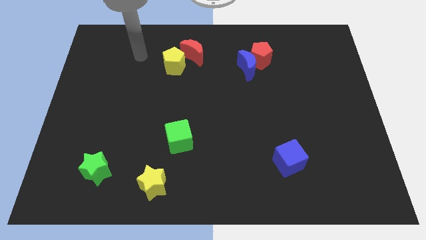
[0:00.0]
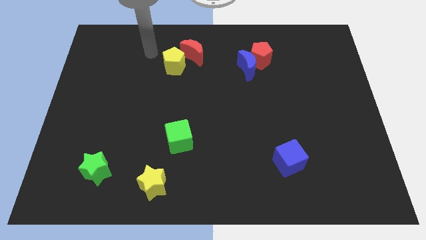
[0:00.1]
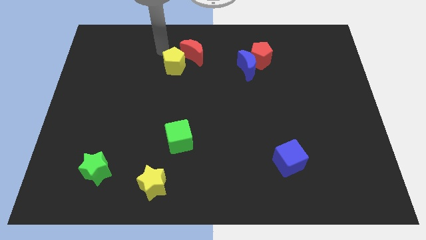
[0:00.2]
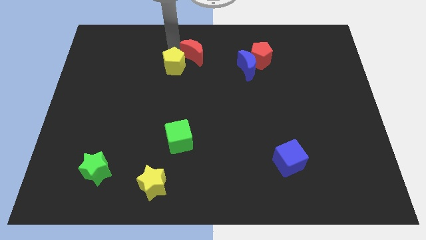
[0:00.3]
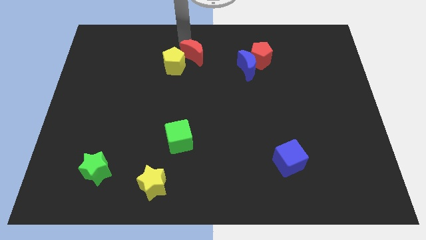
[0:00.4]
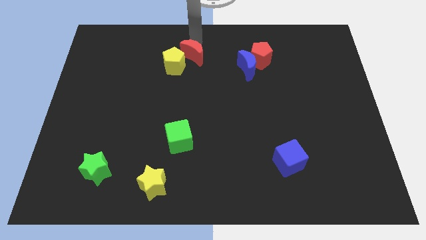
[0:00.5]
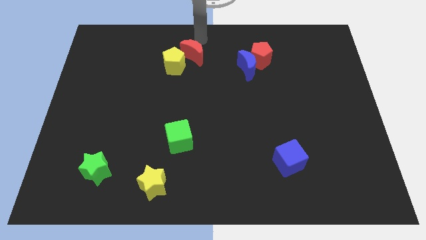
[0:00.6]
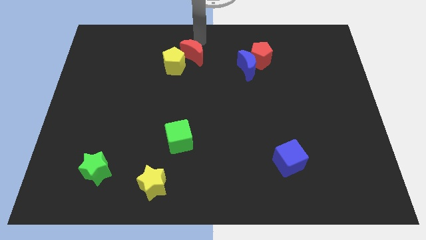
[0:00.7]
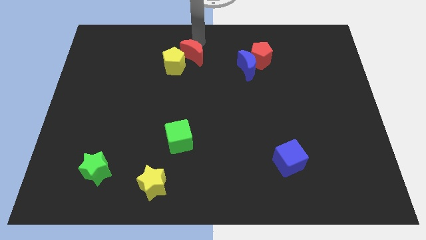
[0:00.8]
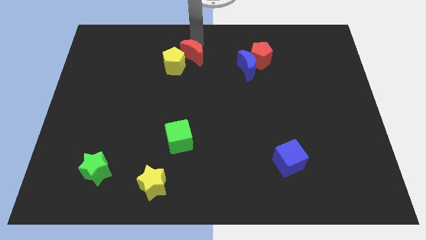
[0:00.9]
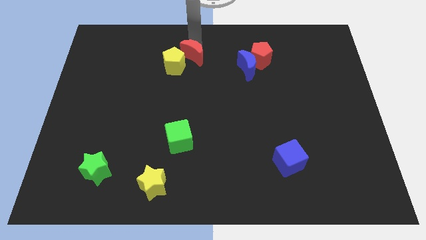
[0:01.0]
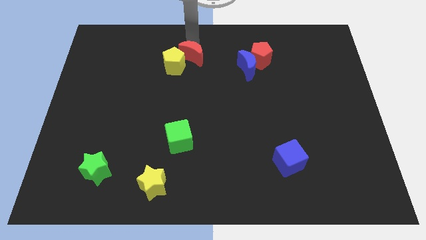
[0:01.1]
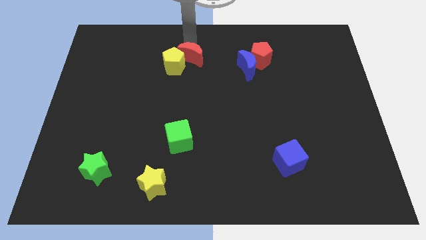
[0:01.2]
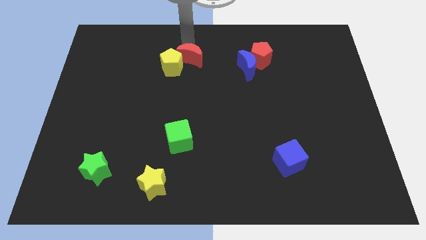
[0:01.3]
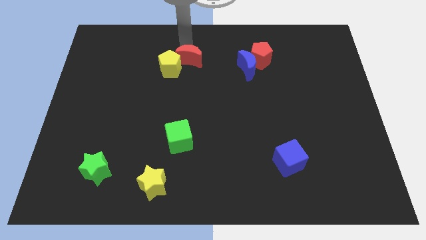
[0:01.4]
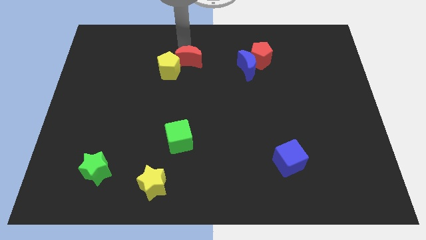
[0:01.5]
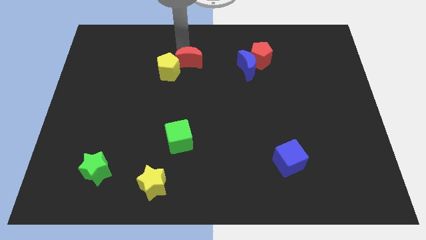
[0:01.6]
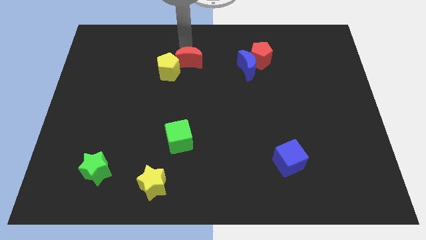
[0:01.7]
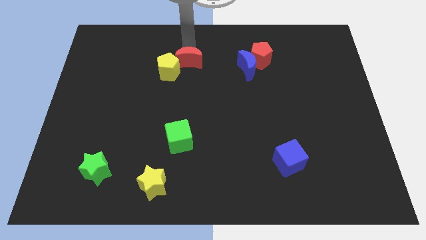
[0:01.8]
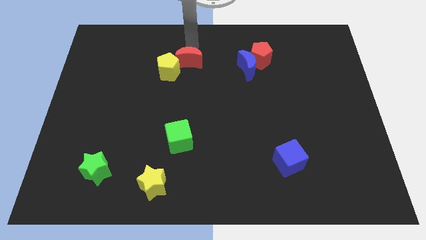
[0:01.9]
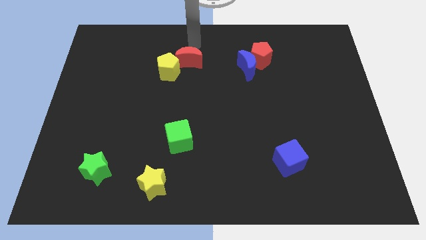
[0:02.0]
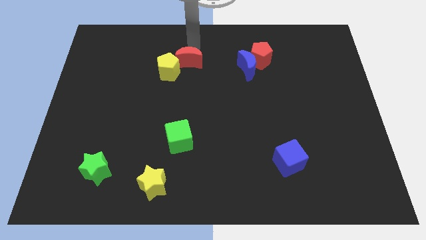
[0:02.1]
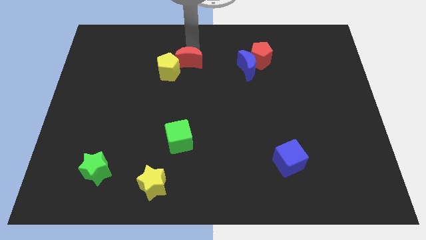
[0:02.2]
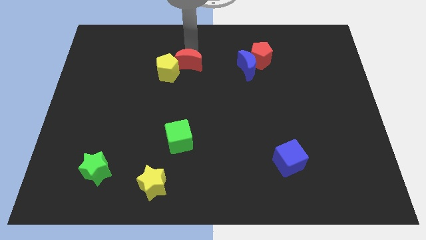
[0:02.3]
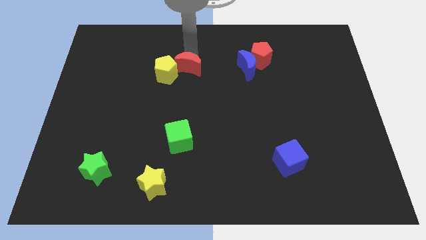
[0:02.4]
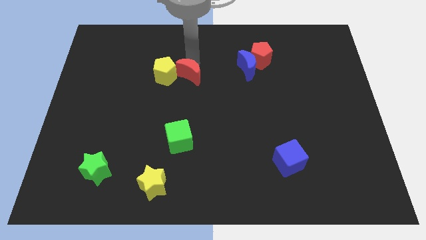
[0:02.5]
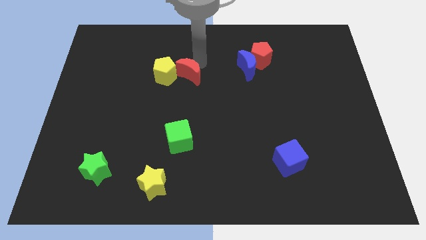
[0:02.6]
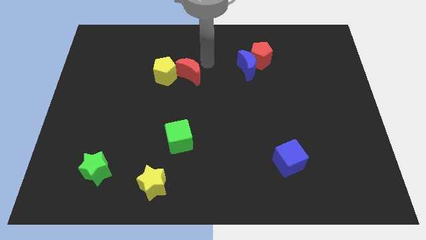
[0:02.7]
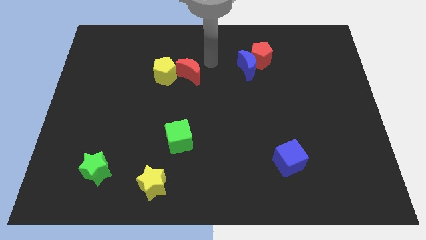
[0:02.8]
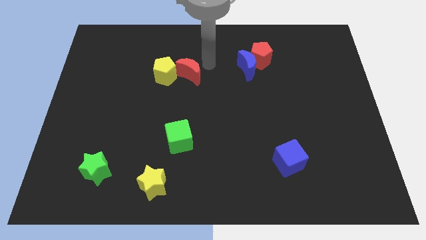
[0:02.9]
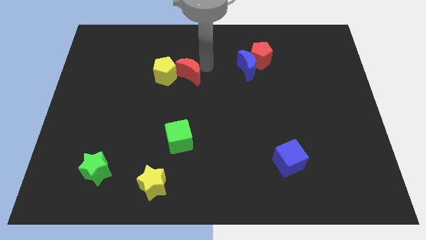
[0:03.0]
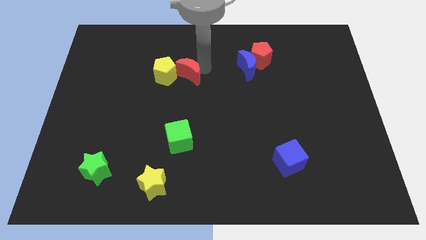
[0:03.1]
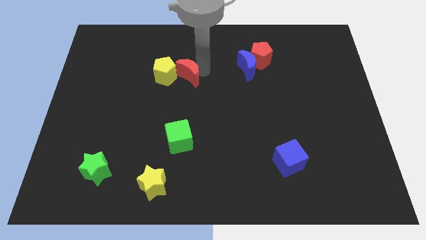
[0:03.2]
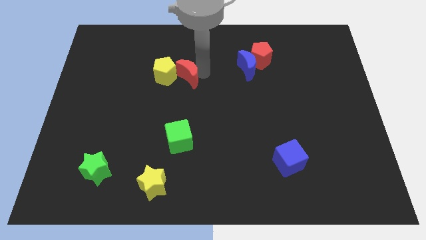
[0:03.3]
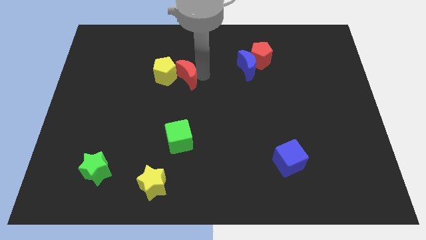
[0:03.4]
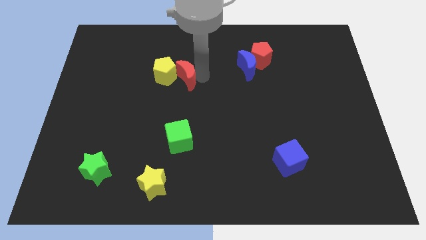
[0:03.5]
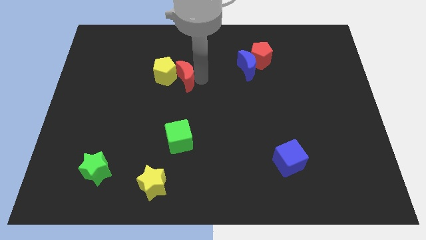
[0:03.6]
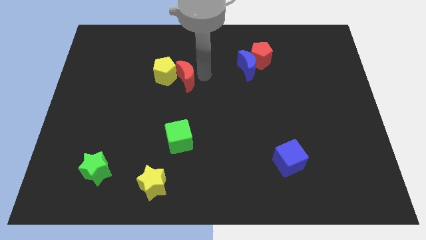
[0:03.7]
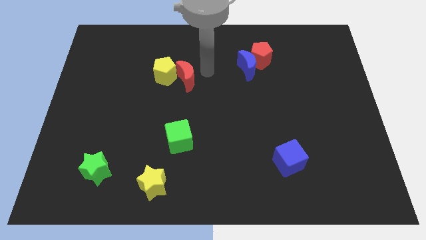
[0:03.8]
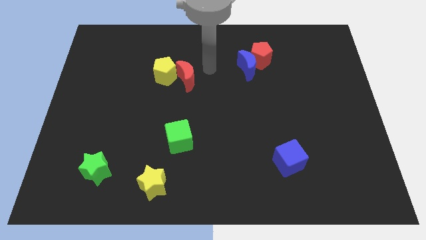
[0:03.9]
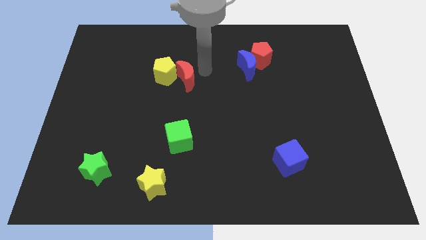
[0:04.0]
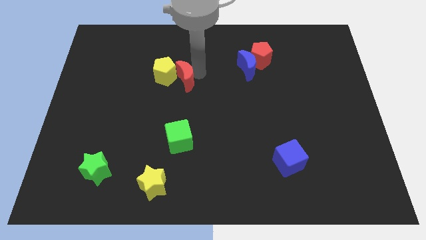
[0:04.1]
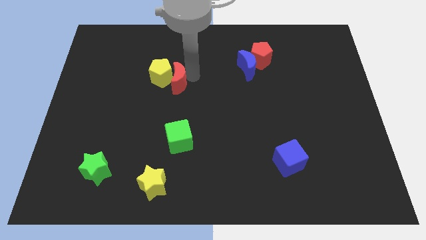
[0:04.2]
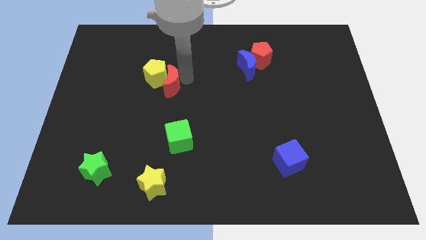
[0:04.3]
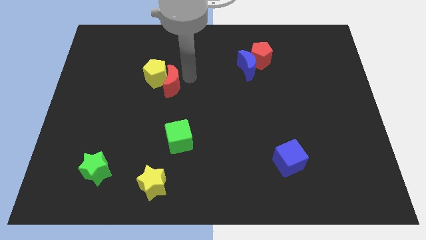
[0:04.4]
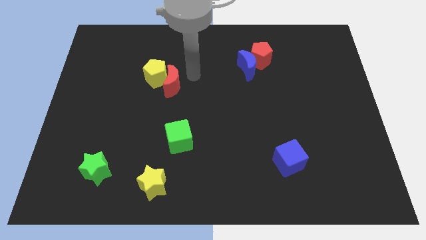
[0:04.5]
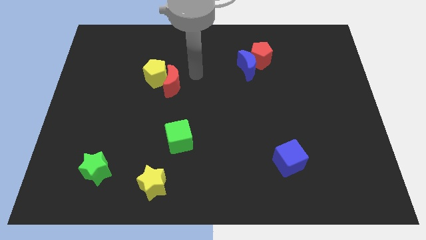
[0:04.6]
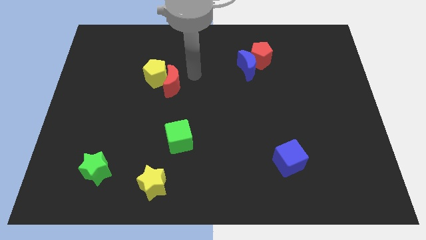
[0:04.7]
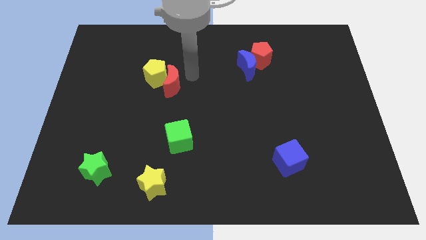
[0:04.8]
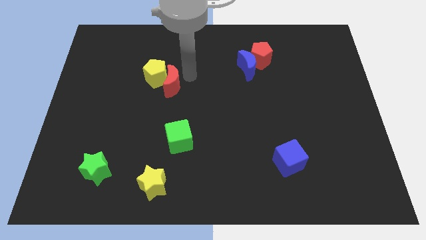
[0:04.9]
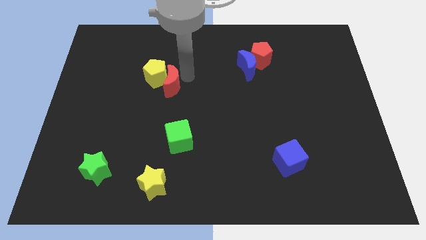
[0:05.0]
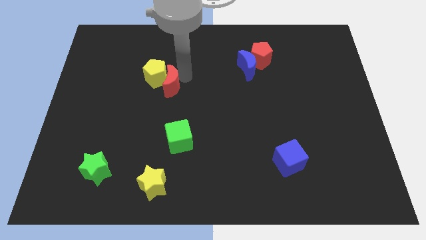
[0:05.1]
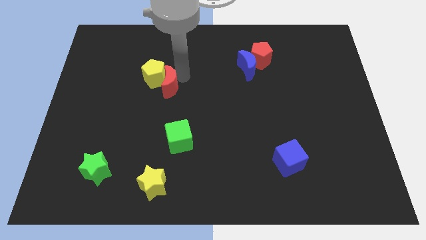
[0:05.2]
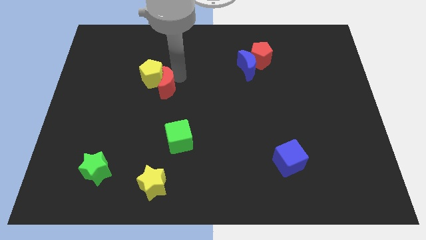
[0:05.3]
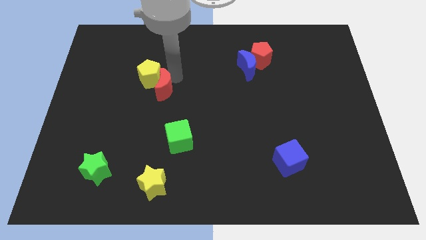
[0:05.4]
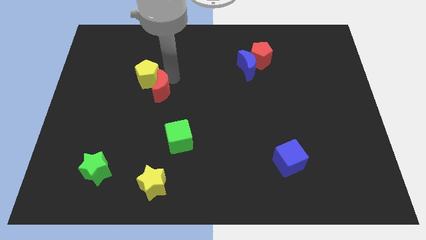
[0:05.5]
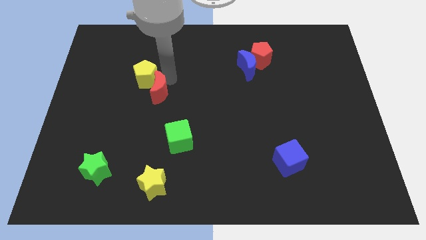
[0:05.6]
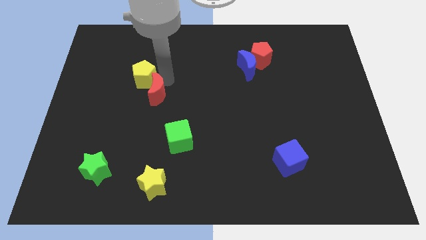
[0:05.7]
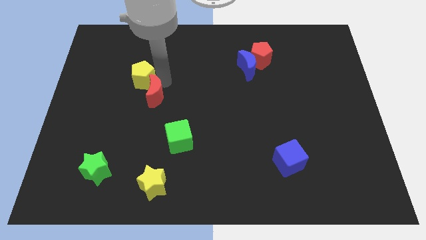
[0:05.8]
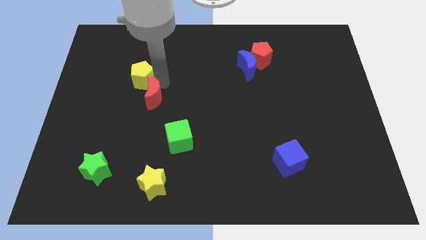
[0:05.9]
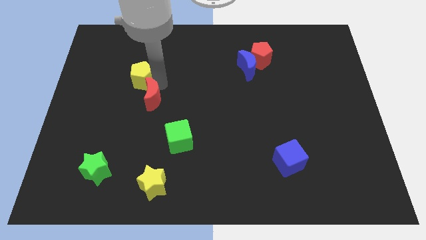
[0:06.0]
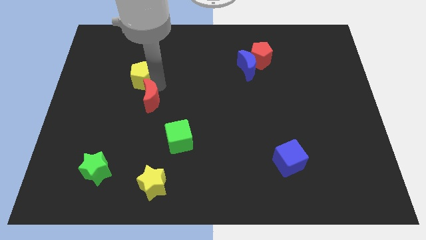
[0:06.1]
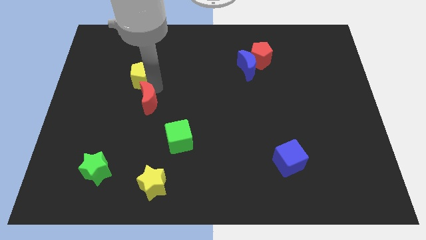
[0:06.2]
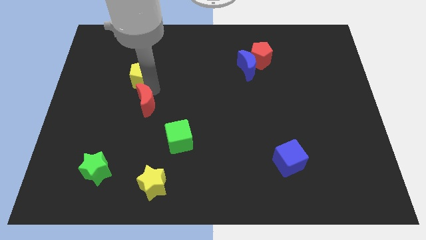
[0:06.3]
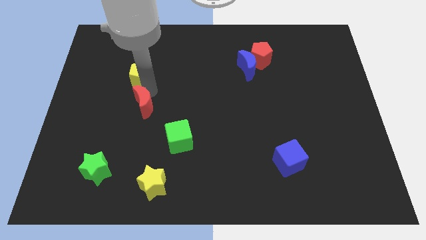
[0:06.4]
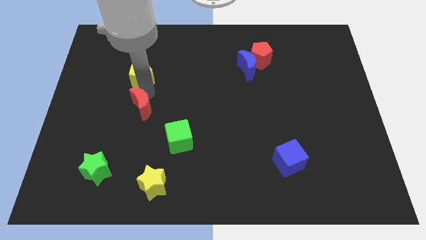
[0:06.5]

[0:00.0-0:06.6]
slide the red moon down and to the left

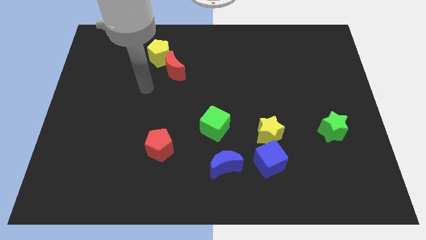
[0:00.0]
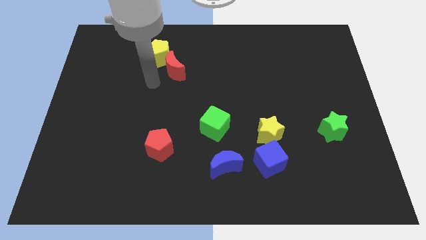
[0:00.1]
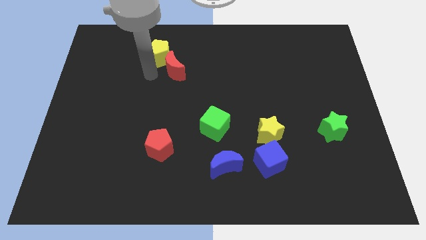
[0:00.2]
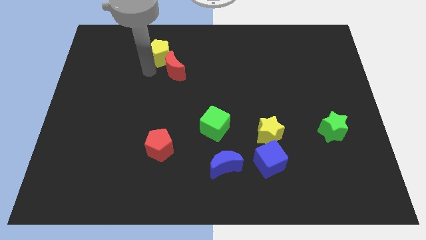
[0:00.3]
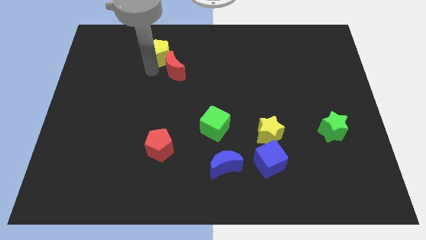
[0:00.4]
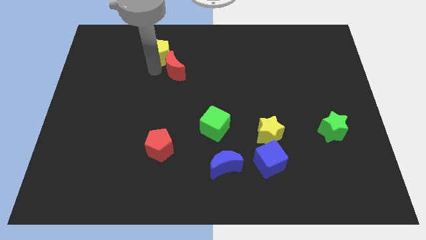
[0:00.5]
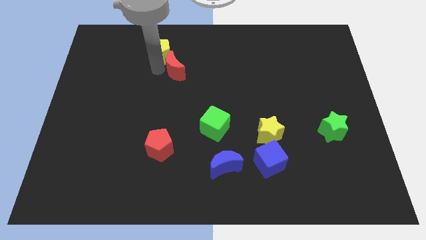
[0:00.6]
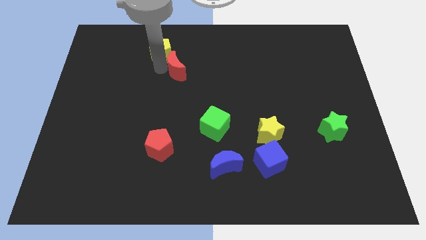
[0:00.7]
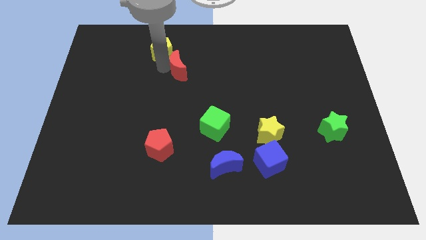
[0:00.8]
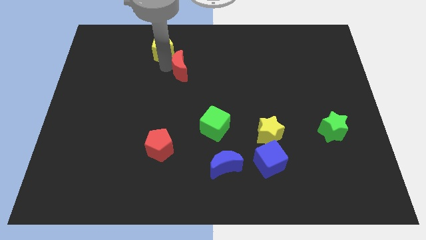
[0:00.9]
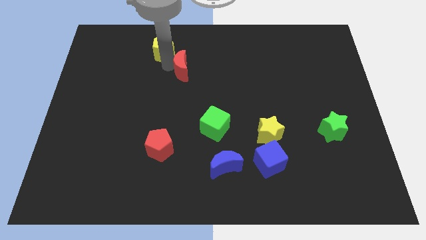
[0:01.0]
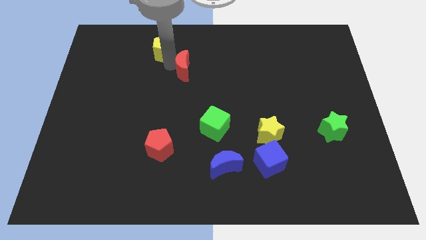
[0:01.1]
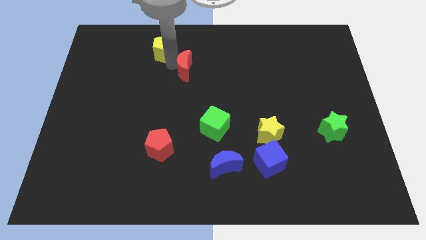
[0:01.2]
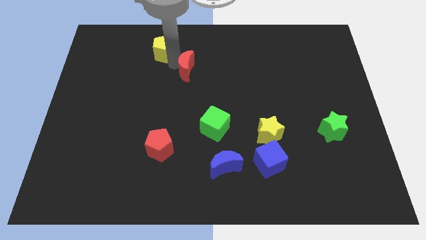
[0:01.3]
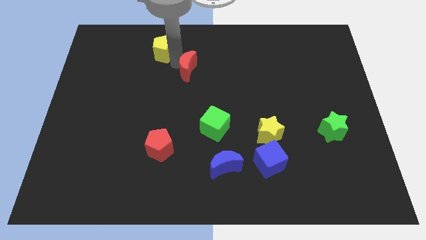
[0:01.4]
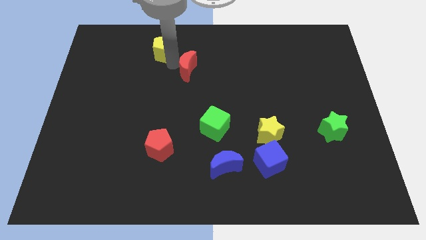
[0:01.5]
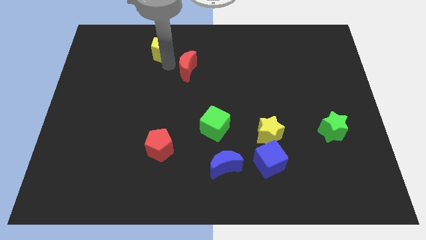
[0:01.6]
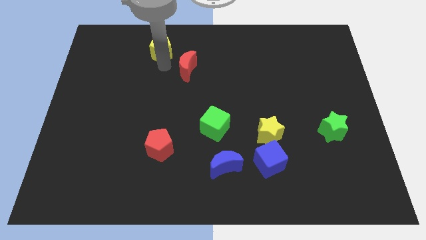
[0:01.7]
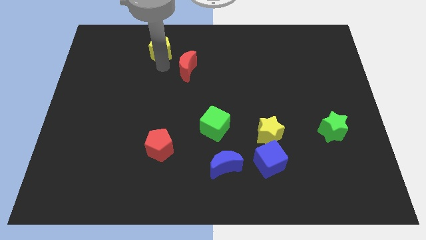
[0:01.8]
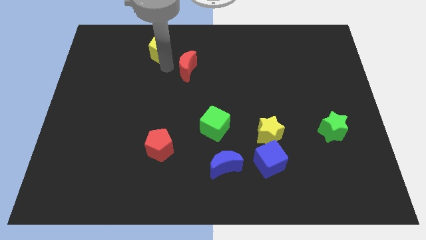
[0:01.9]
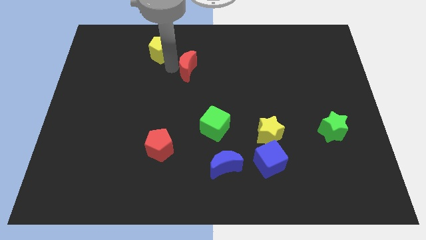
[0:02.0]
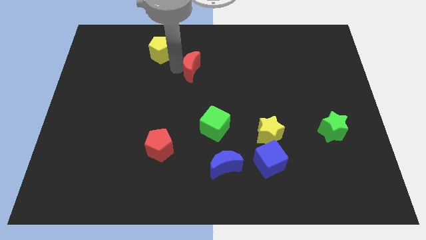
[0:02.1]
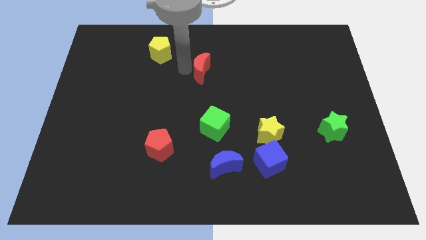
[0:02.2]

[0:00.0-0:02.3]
slightly push the red moon to the right
